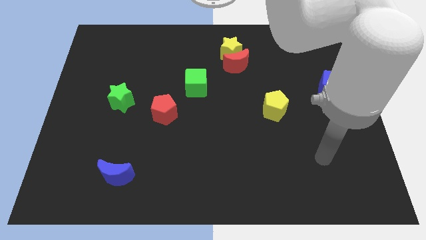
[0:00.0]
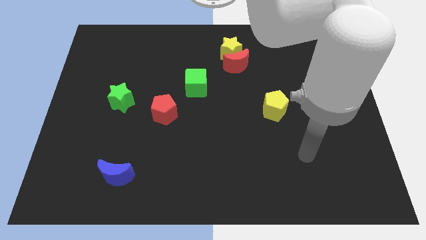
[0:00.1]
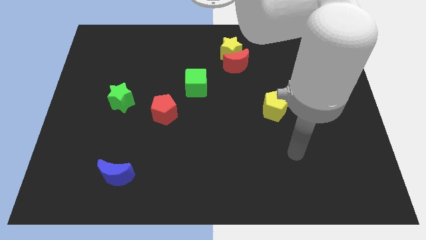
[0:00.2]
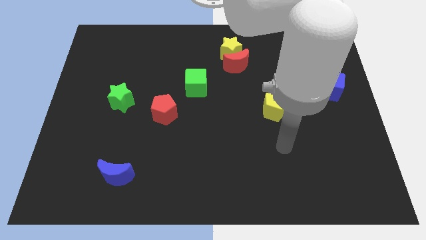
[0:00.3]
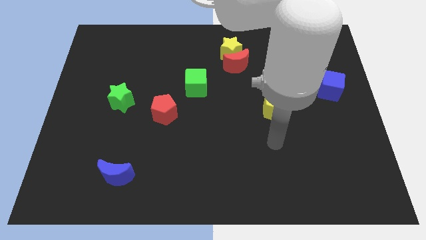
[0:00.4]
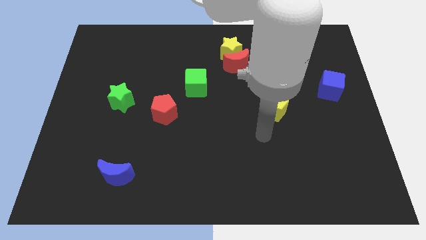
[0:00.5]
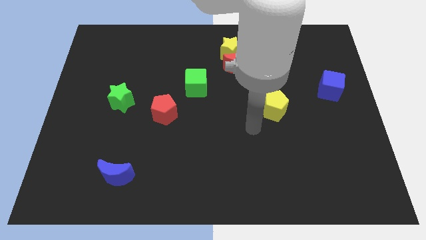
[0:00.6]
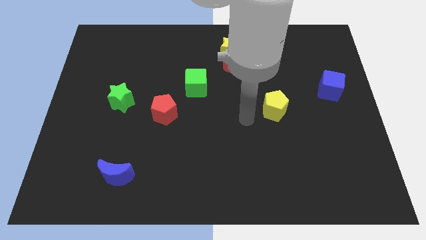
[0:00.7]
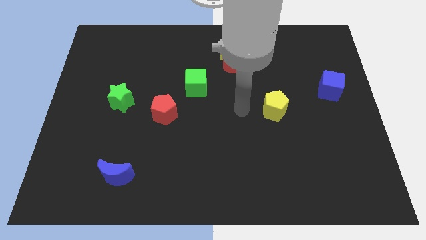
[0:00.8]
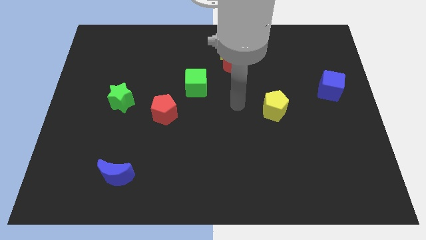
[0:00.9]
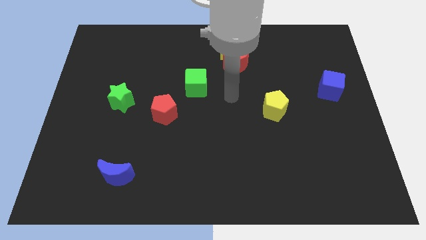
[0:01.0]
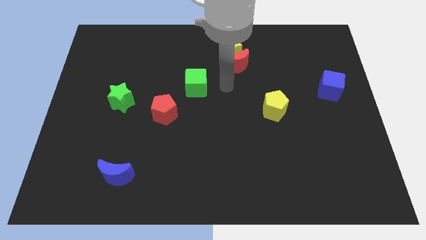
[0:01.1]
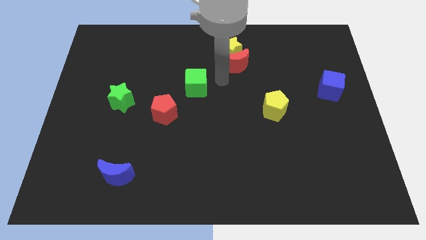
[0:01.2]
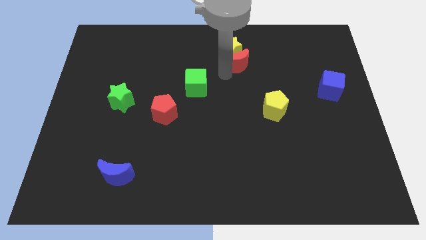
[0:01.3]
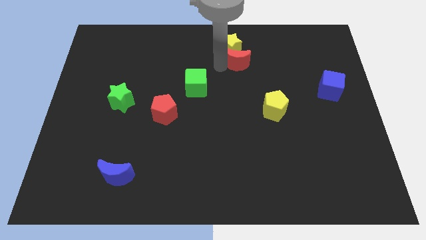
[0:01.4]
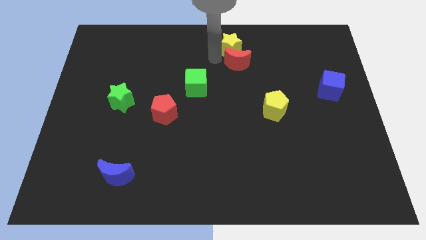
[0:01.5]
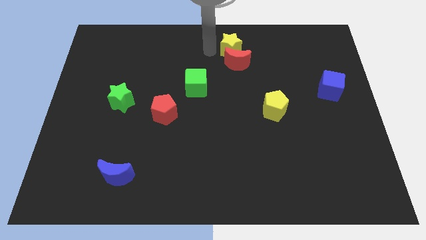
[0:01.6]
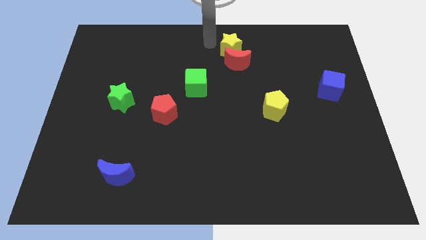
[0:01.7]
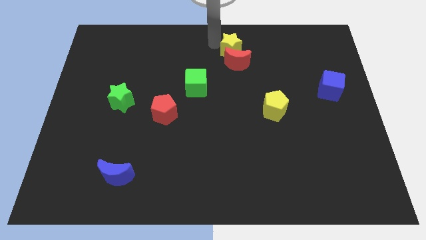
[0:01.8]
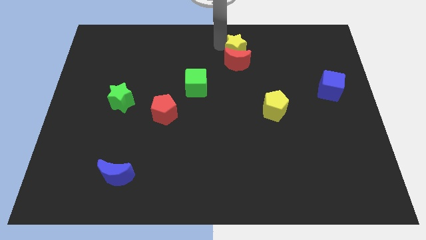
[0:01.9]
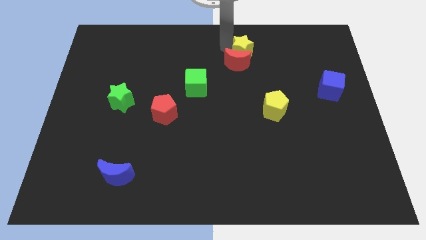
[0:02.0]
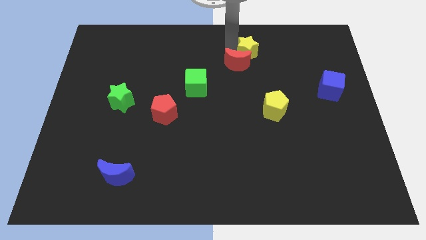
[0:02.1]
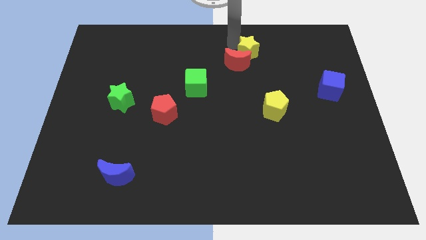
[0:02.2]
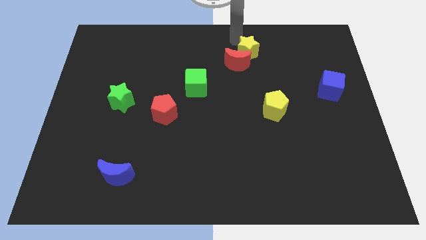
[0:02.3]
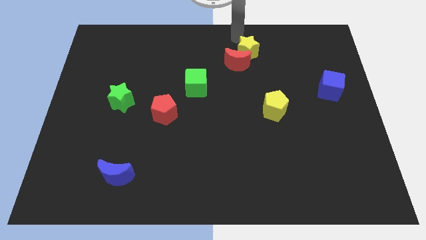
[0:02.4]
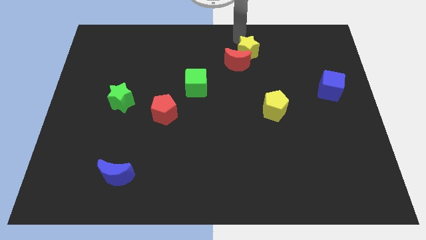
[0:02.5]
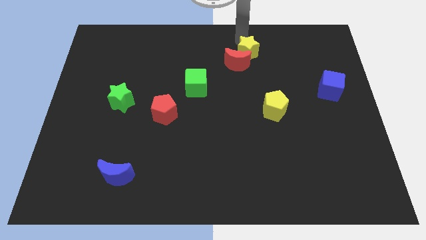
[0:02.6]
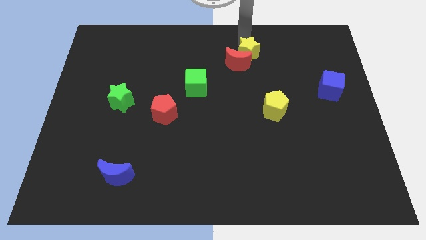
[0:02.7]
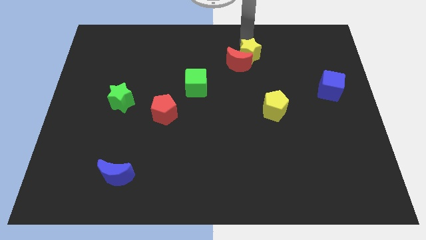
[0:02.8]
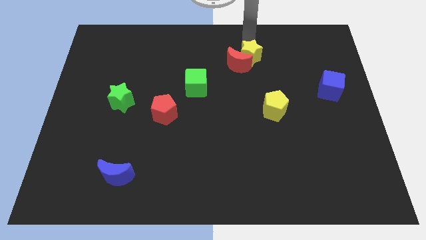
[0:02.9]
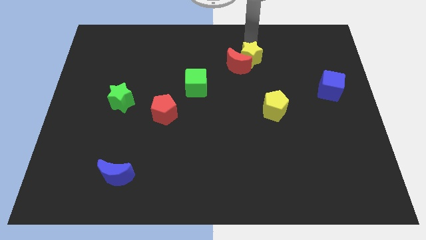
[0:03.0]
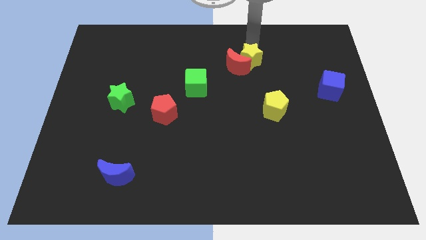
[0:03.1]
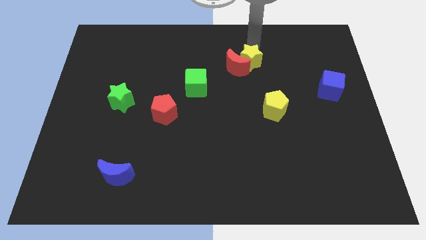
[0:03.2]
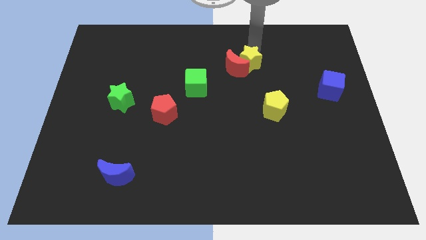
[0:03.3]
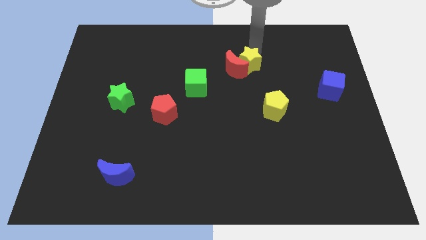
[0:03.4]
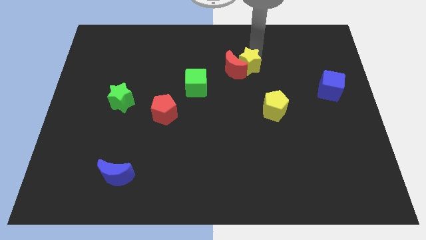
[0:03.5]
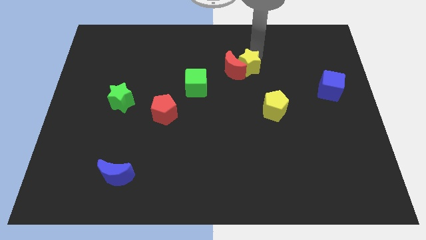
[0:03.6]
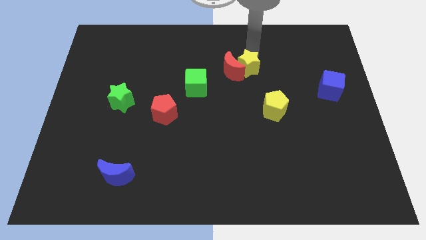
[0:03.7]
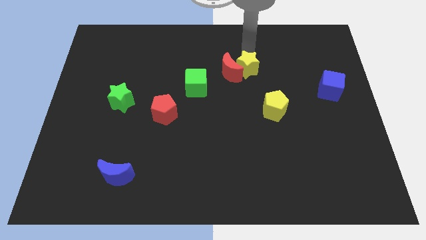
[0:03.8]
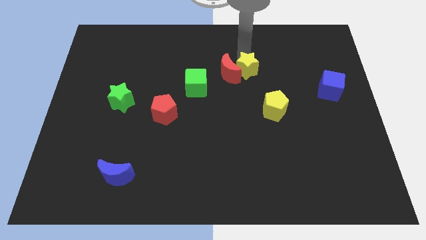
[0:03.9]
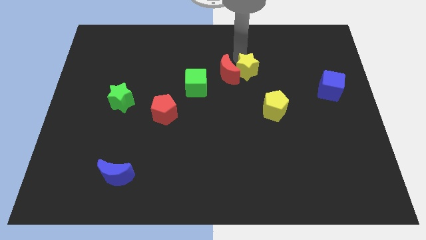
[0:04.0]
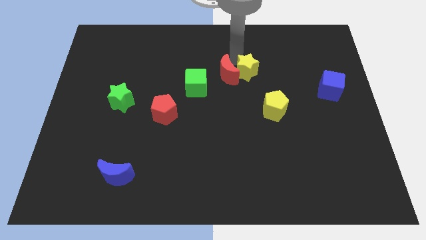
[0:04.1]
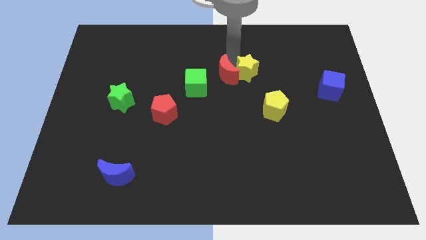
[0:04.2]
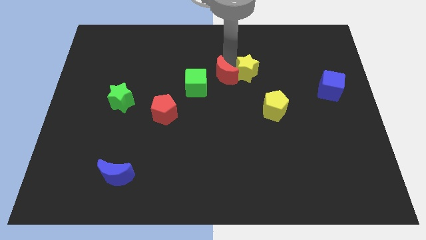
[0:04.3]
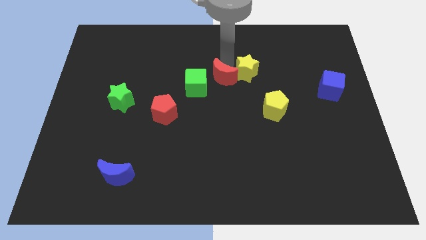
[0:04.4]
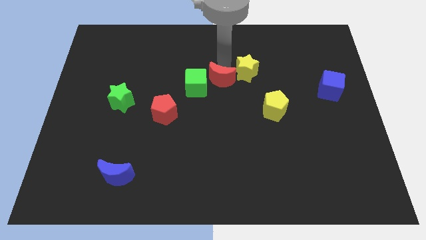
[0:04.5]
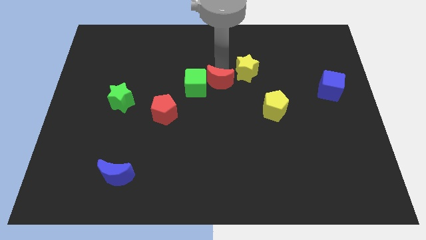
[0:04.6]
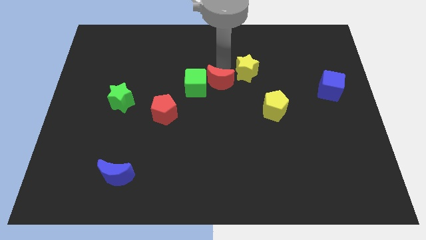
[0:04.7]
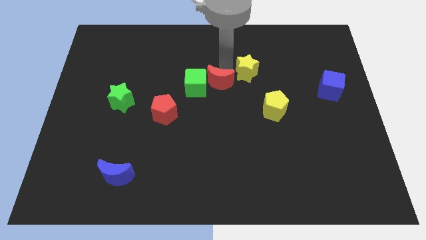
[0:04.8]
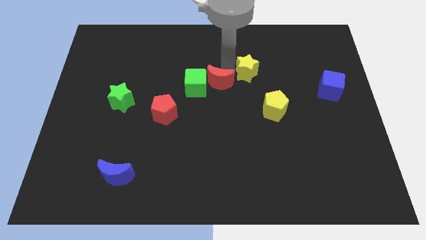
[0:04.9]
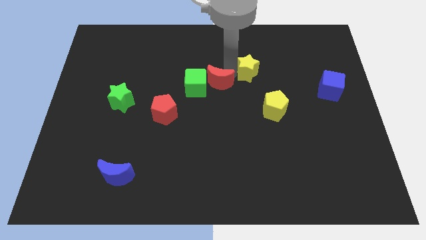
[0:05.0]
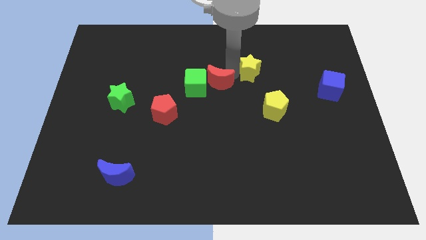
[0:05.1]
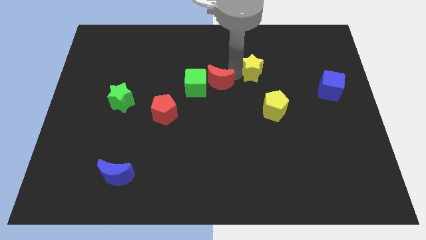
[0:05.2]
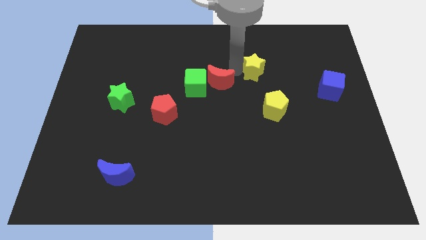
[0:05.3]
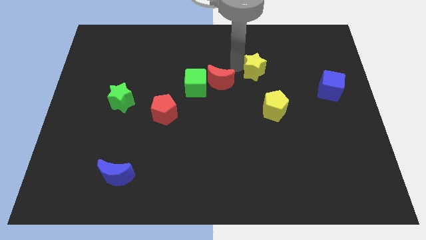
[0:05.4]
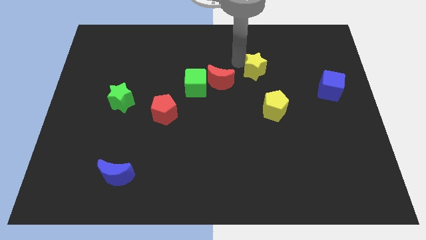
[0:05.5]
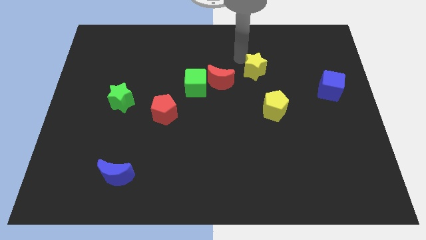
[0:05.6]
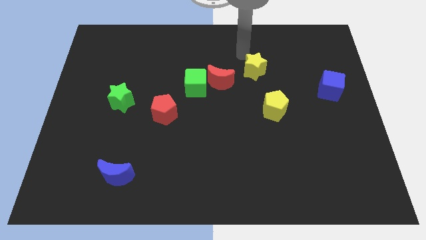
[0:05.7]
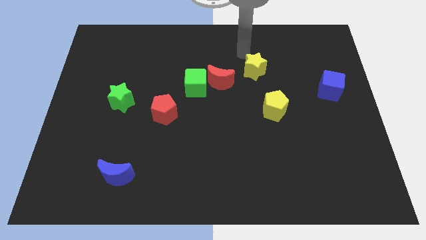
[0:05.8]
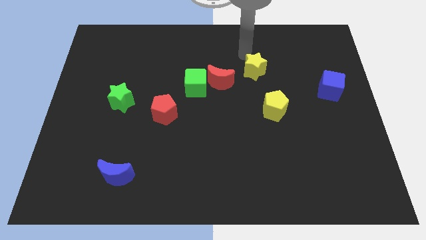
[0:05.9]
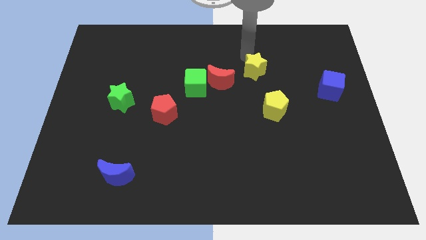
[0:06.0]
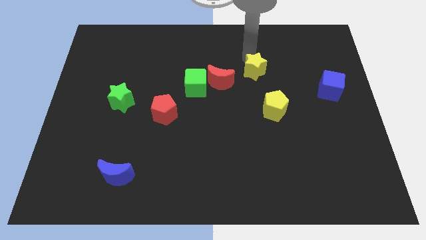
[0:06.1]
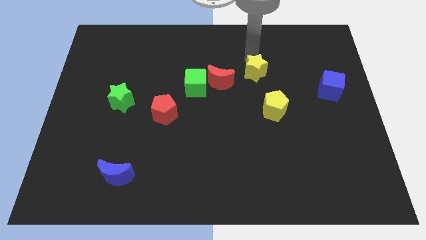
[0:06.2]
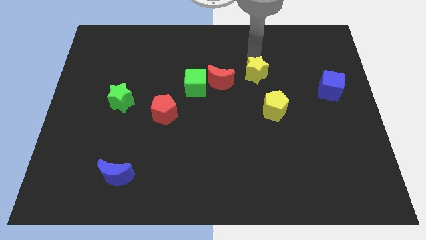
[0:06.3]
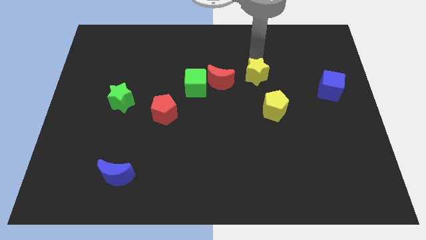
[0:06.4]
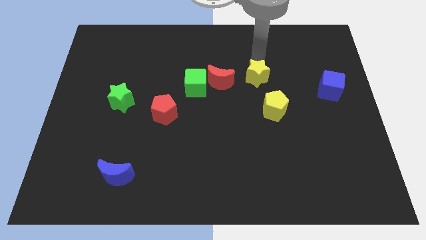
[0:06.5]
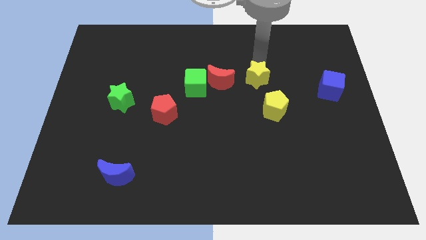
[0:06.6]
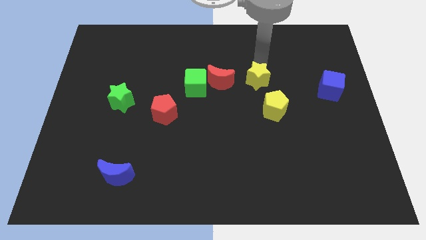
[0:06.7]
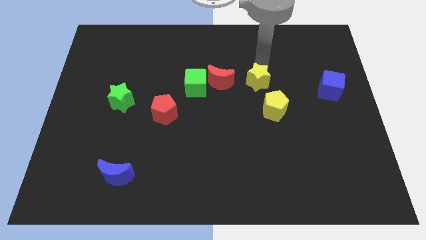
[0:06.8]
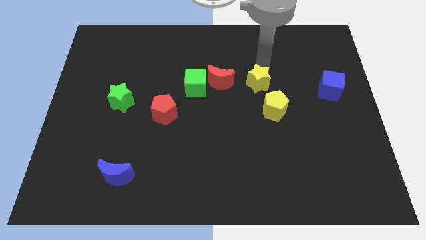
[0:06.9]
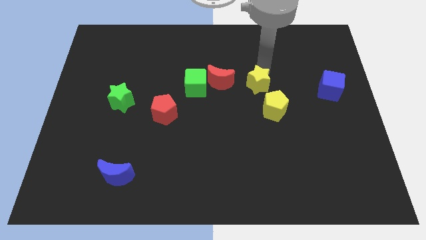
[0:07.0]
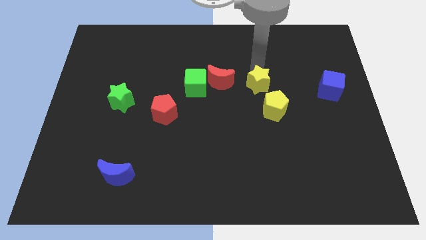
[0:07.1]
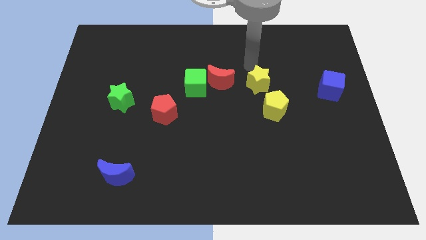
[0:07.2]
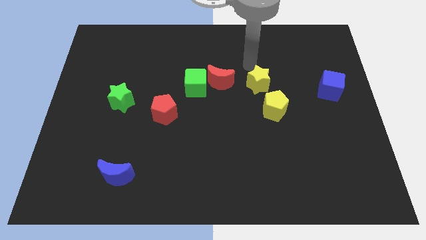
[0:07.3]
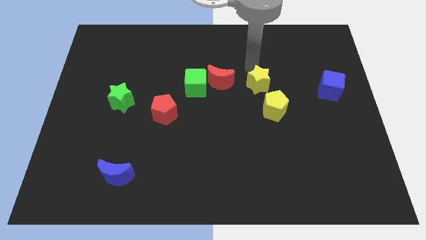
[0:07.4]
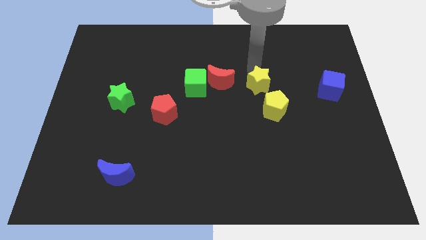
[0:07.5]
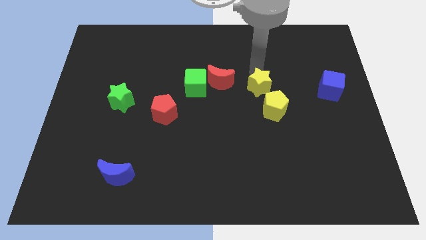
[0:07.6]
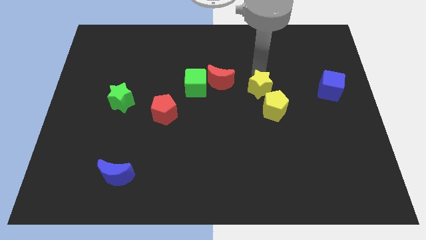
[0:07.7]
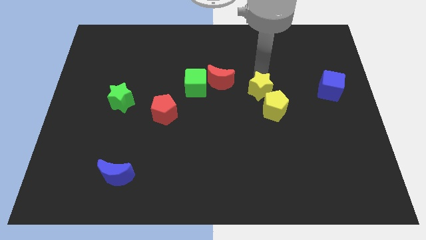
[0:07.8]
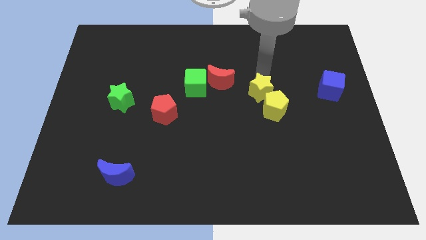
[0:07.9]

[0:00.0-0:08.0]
push the yellow star towards the yellow pentagon
